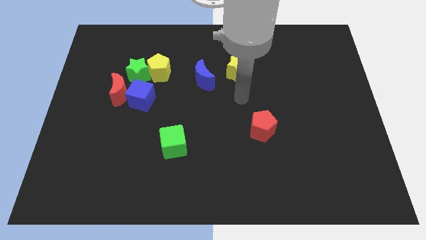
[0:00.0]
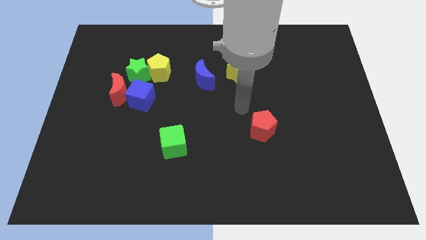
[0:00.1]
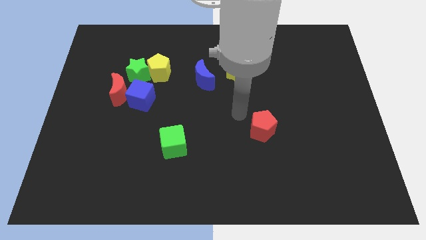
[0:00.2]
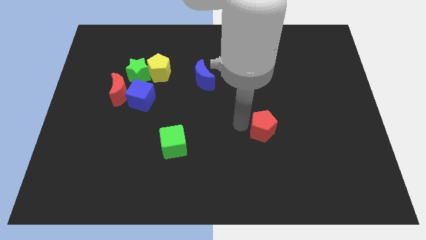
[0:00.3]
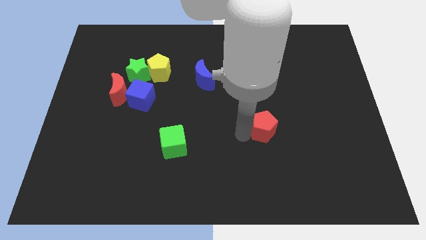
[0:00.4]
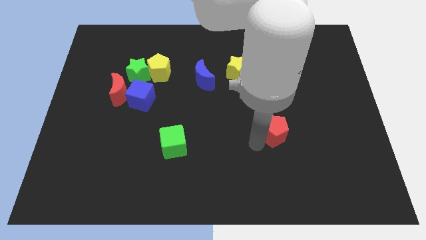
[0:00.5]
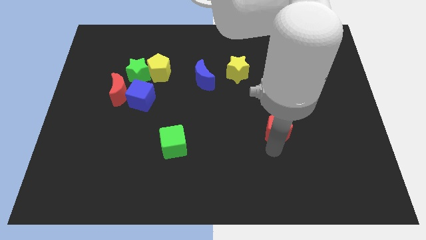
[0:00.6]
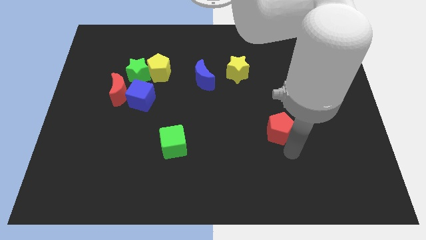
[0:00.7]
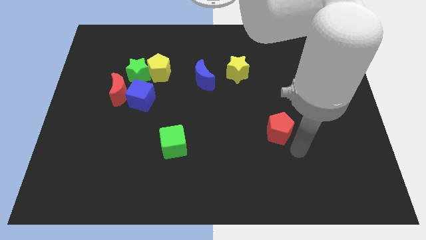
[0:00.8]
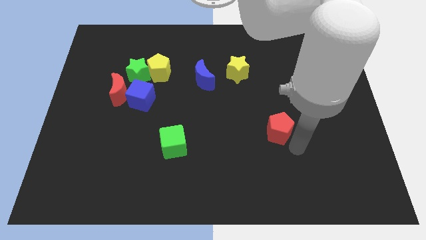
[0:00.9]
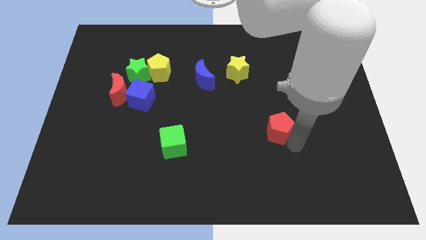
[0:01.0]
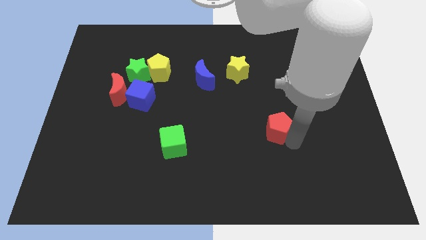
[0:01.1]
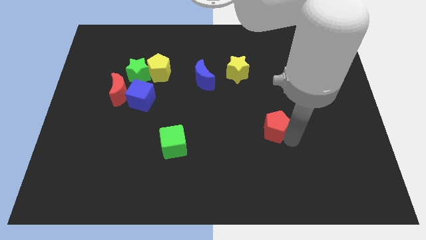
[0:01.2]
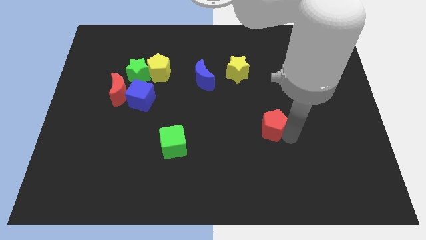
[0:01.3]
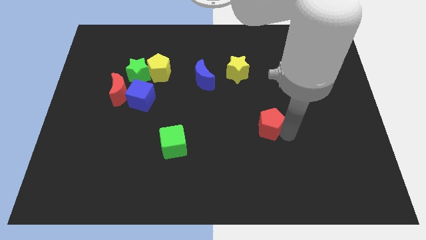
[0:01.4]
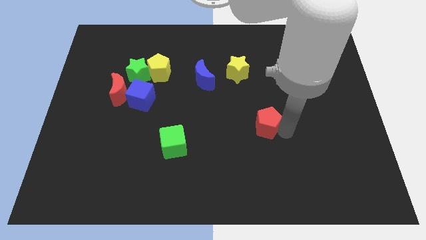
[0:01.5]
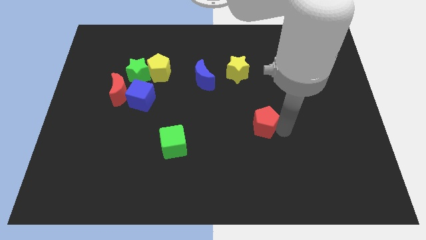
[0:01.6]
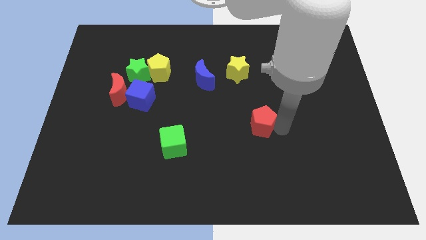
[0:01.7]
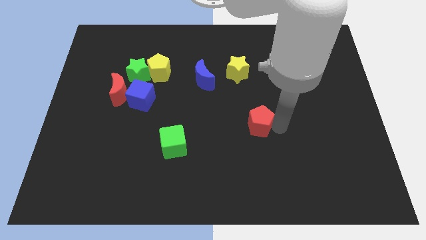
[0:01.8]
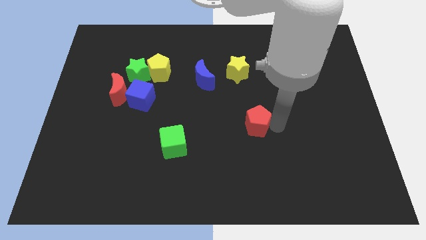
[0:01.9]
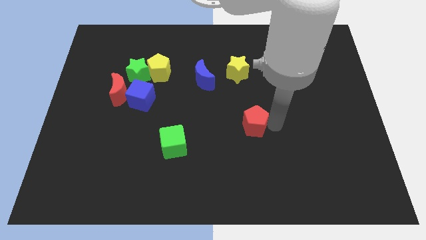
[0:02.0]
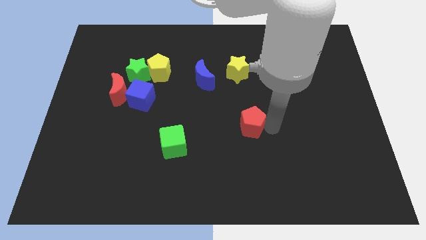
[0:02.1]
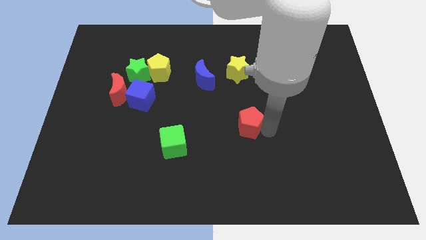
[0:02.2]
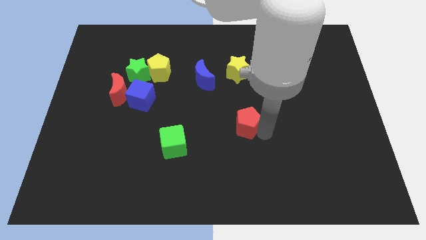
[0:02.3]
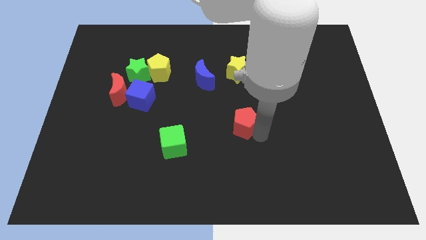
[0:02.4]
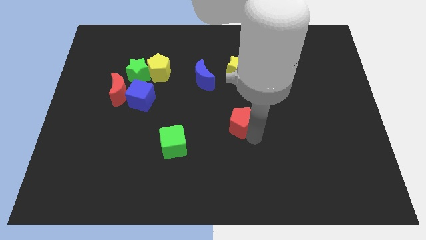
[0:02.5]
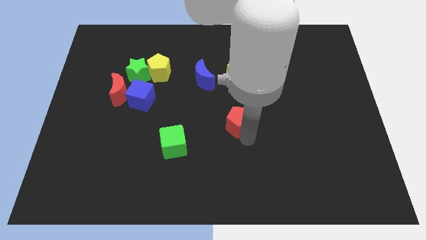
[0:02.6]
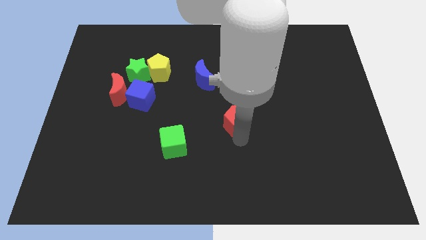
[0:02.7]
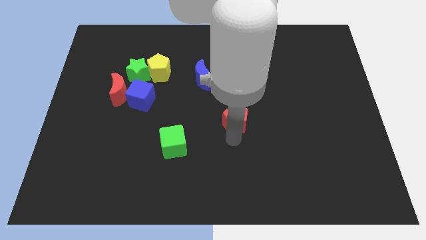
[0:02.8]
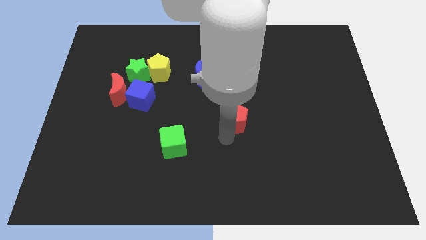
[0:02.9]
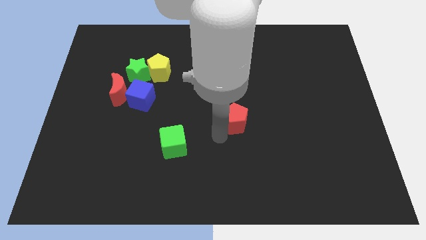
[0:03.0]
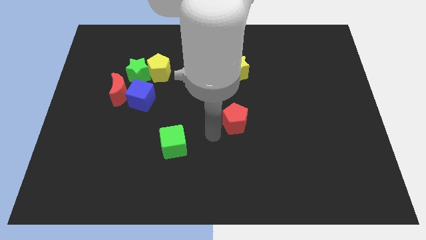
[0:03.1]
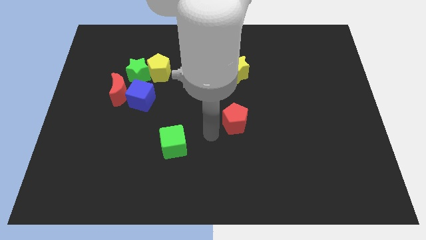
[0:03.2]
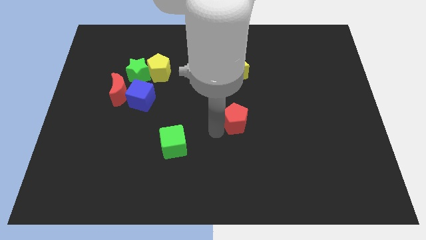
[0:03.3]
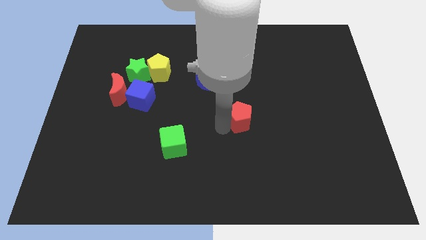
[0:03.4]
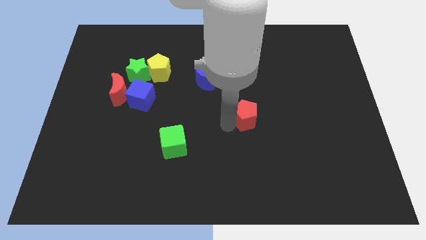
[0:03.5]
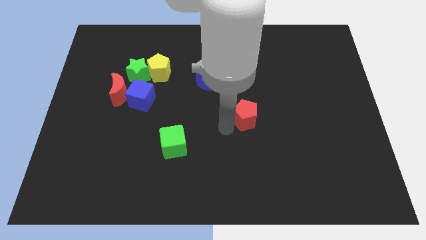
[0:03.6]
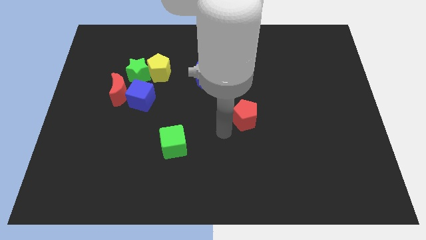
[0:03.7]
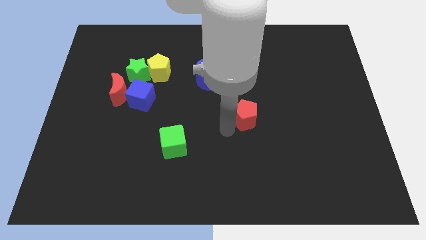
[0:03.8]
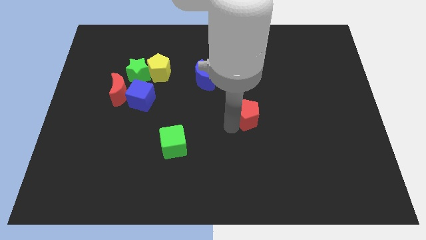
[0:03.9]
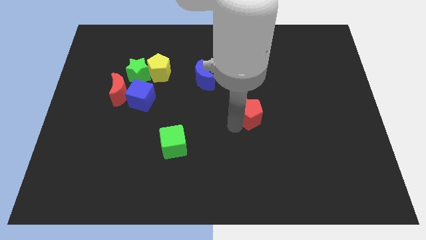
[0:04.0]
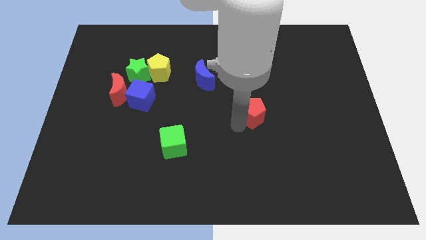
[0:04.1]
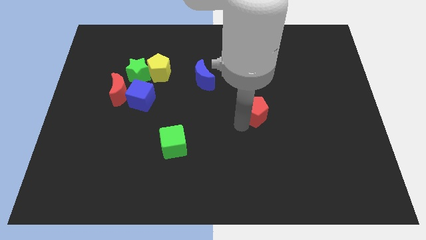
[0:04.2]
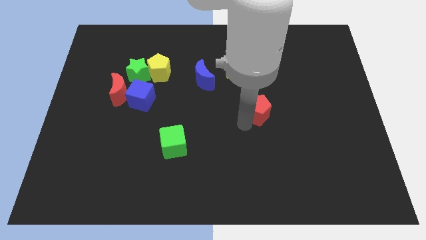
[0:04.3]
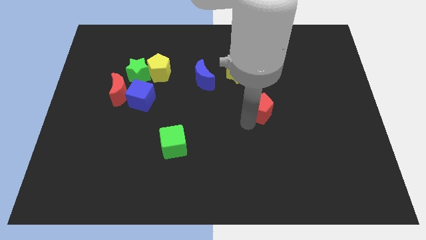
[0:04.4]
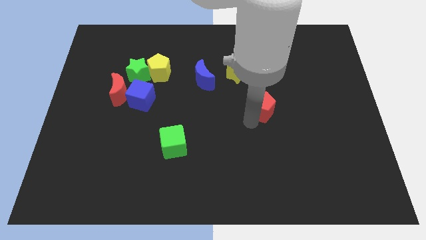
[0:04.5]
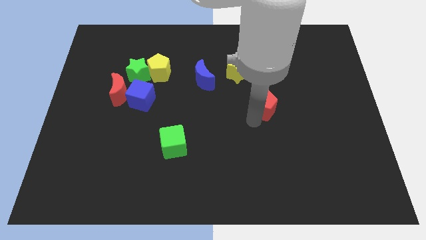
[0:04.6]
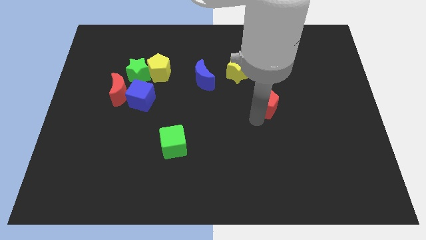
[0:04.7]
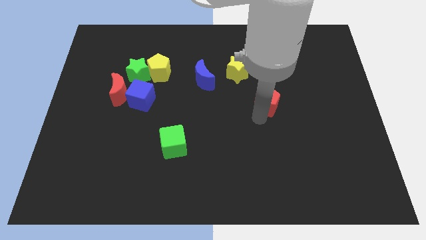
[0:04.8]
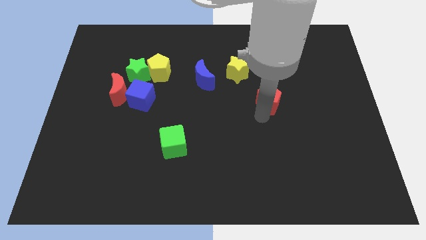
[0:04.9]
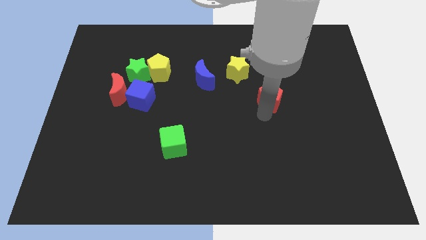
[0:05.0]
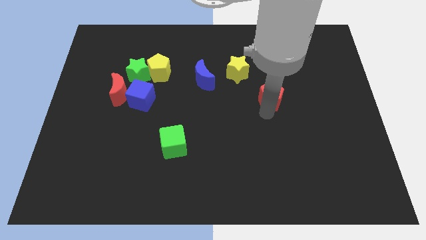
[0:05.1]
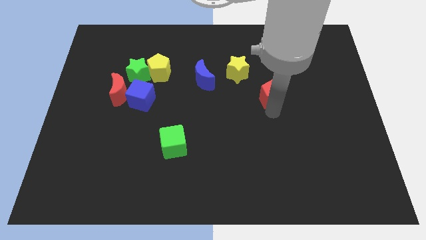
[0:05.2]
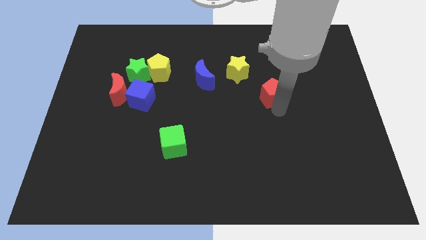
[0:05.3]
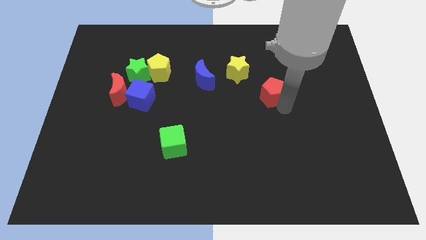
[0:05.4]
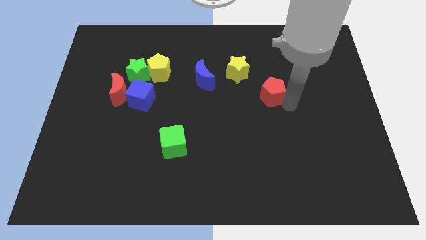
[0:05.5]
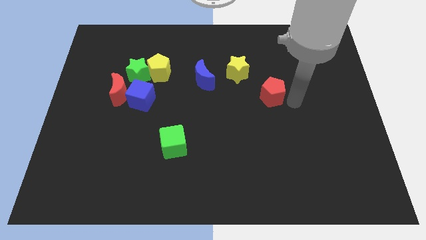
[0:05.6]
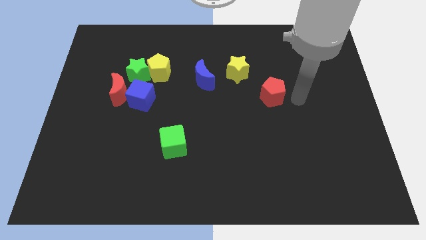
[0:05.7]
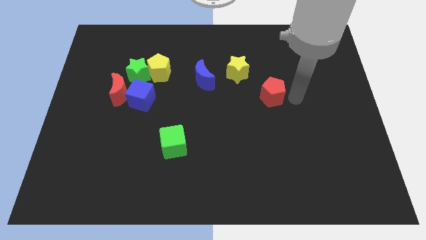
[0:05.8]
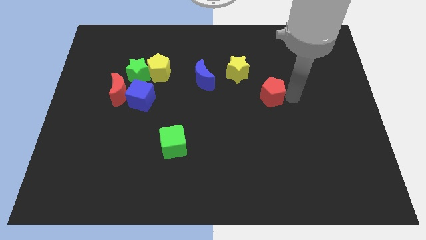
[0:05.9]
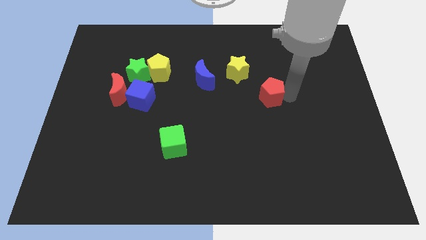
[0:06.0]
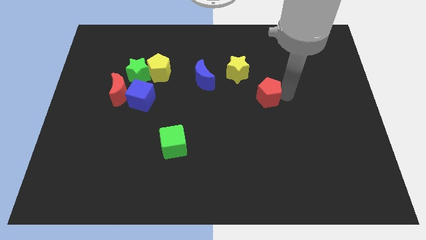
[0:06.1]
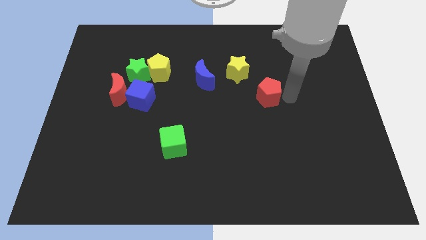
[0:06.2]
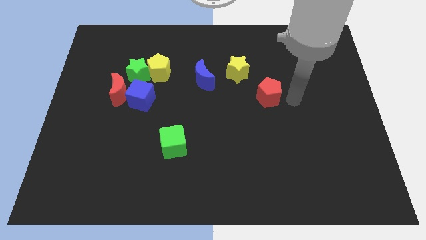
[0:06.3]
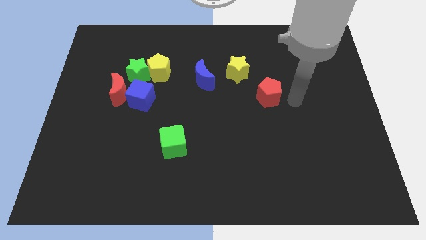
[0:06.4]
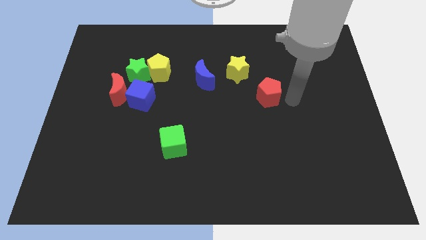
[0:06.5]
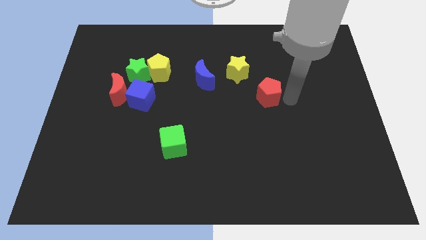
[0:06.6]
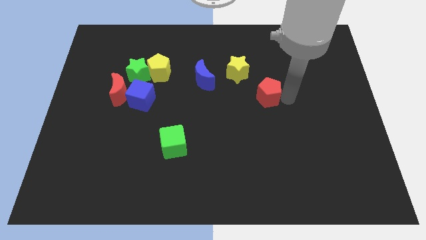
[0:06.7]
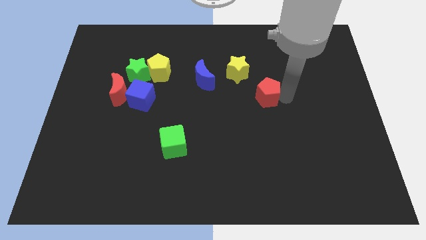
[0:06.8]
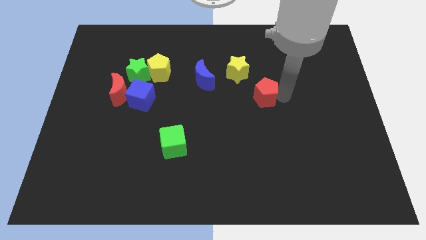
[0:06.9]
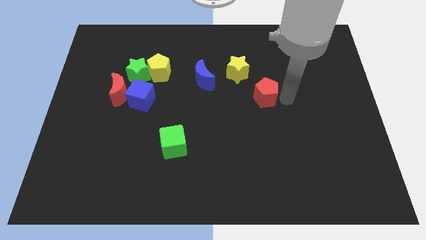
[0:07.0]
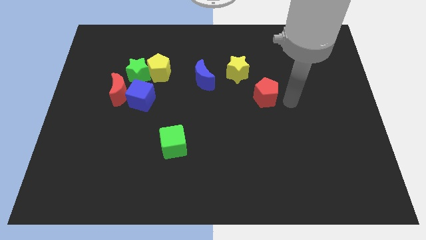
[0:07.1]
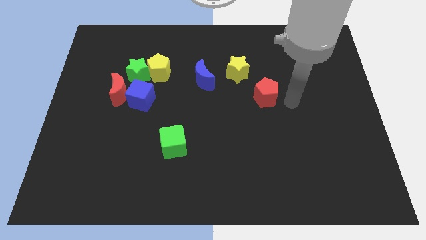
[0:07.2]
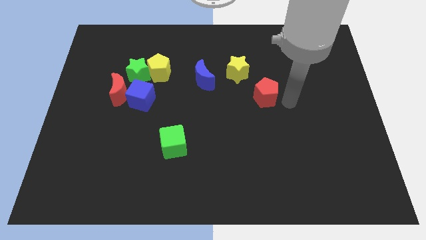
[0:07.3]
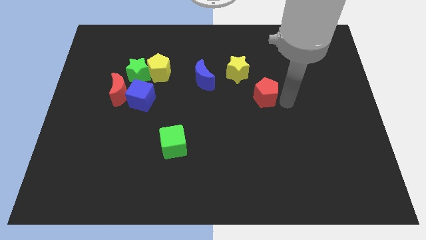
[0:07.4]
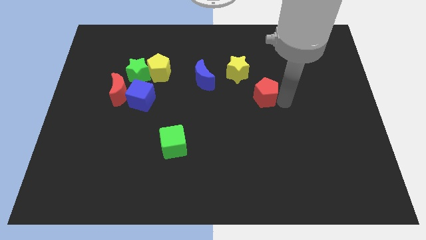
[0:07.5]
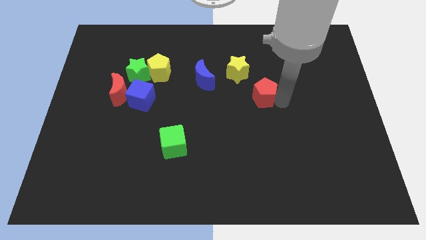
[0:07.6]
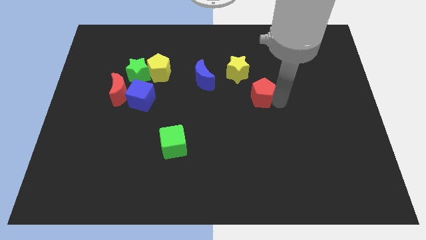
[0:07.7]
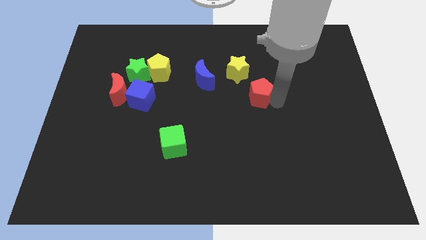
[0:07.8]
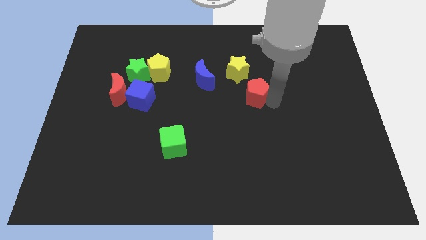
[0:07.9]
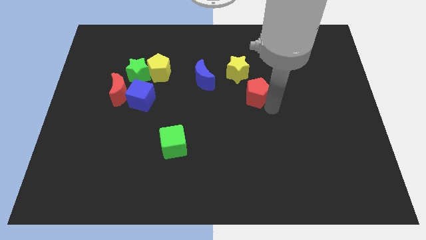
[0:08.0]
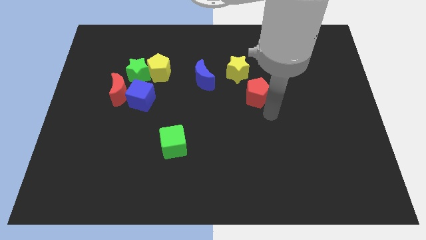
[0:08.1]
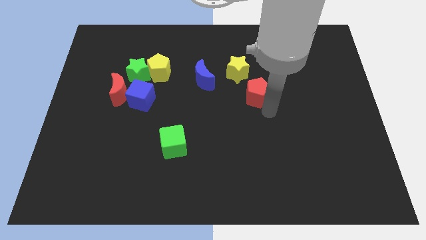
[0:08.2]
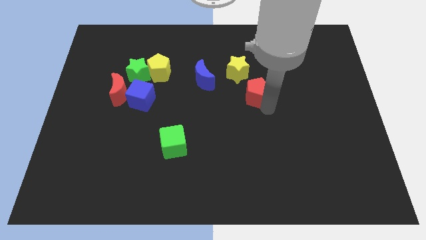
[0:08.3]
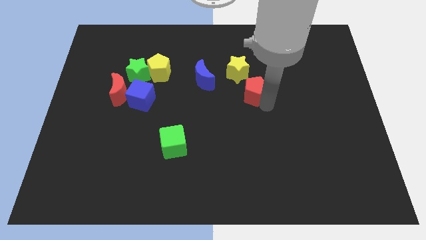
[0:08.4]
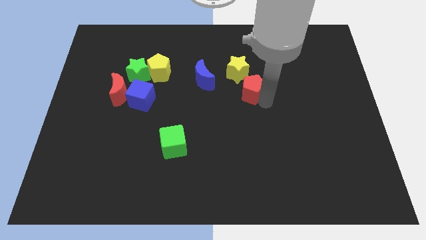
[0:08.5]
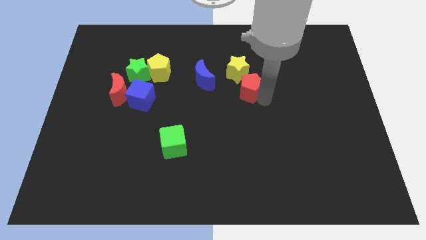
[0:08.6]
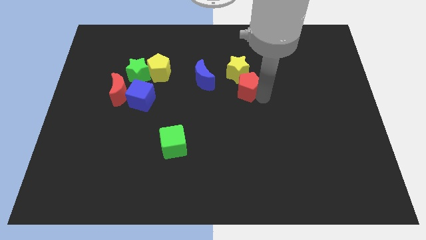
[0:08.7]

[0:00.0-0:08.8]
slide the red pentagon close to the yellow star
